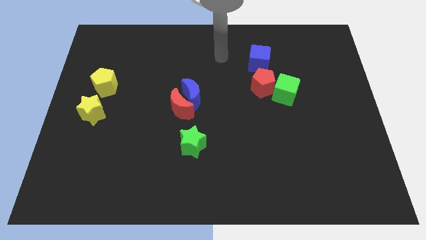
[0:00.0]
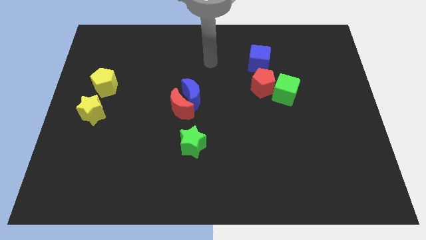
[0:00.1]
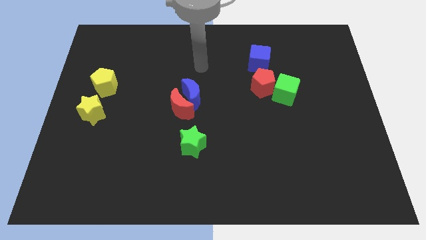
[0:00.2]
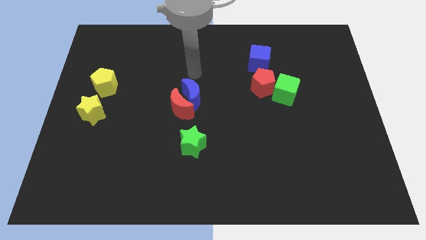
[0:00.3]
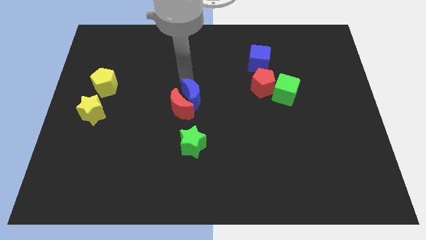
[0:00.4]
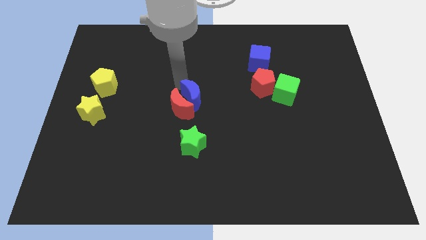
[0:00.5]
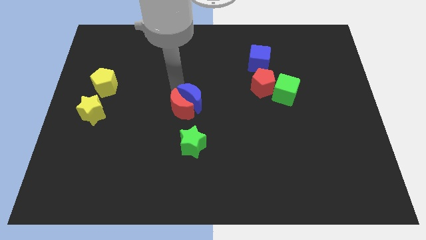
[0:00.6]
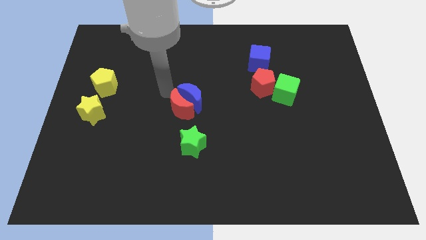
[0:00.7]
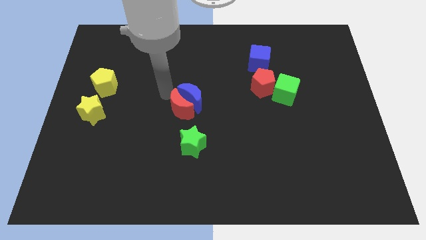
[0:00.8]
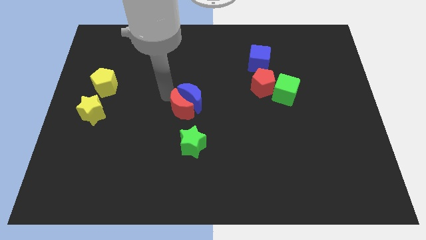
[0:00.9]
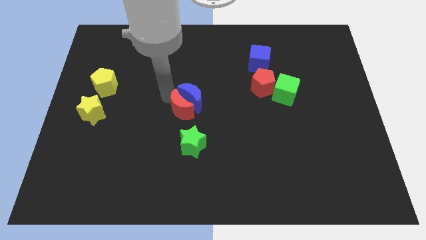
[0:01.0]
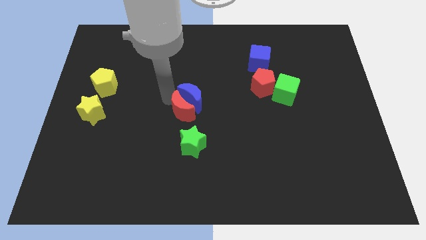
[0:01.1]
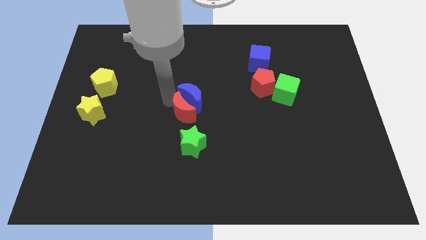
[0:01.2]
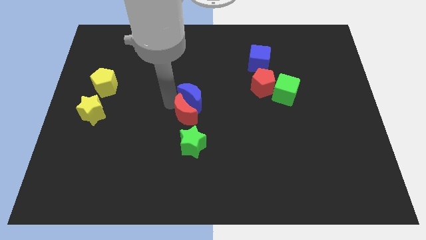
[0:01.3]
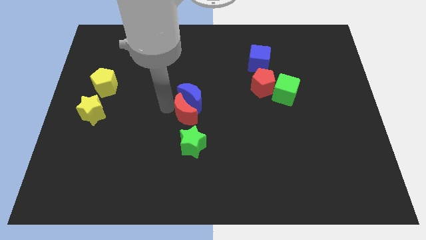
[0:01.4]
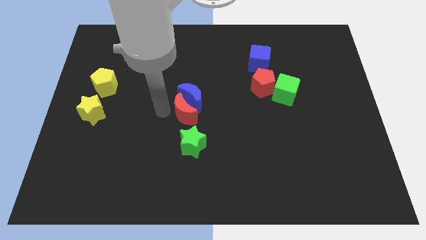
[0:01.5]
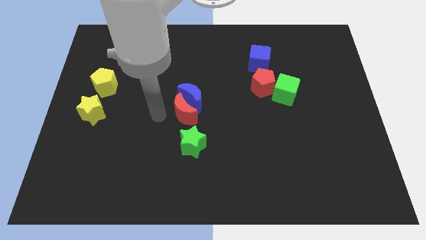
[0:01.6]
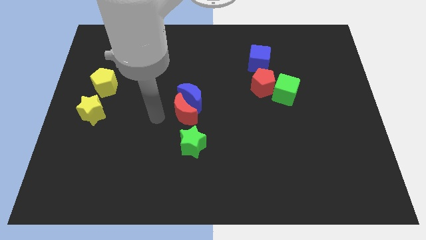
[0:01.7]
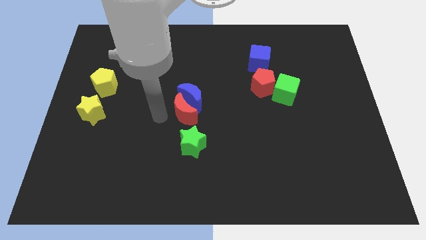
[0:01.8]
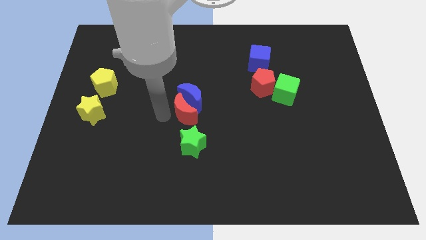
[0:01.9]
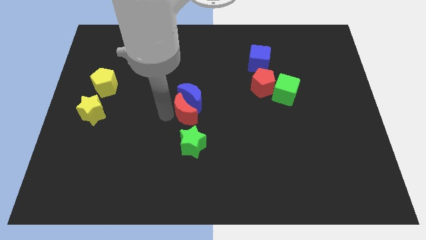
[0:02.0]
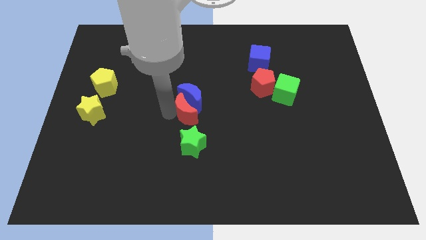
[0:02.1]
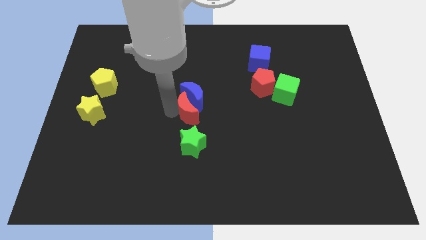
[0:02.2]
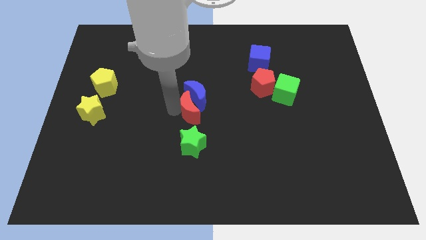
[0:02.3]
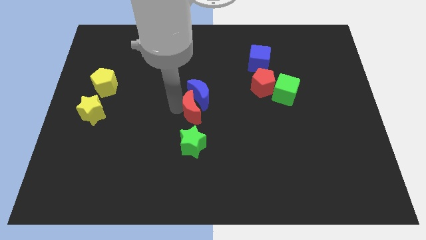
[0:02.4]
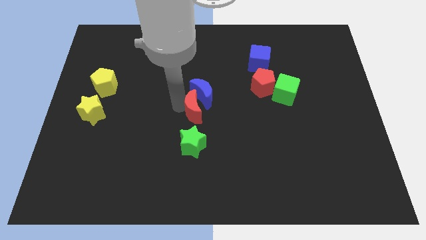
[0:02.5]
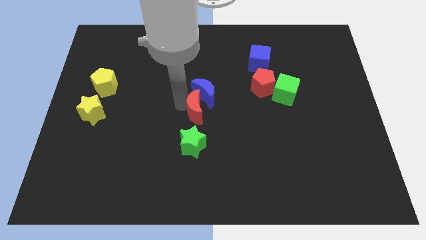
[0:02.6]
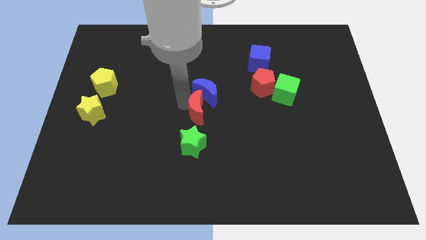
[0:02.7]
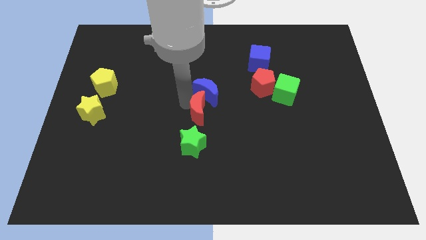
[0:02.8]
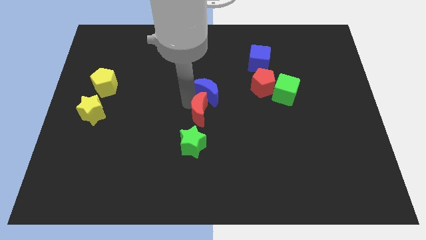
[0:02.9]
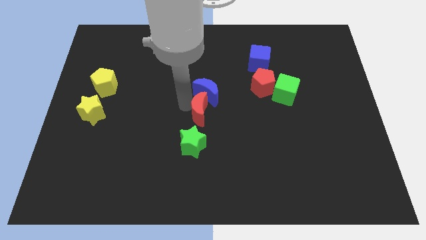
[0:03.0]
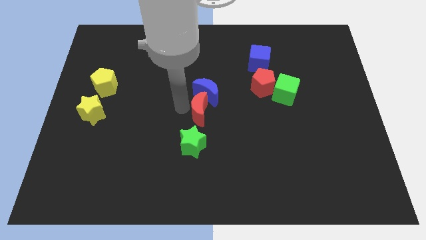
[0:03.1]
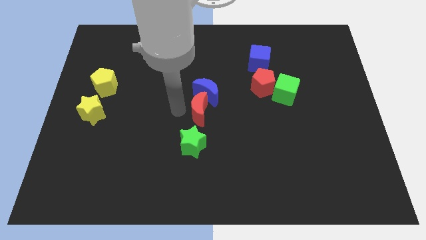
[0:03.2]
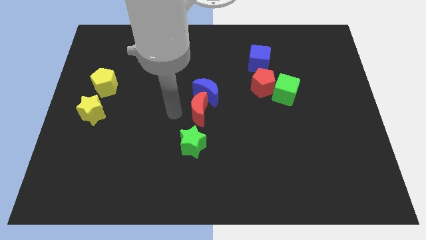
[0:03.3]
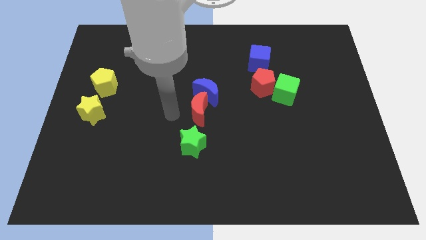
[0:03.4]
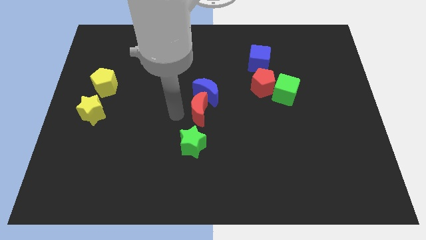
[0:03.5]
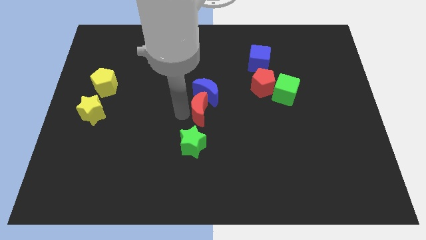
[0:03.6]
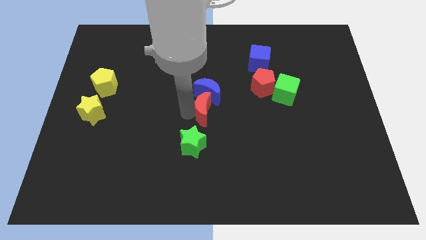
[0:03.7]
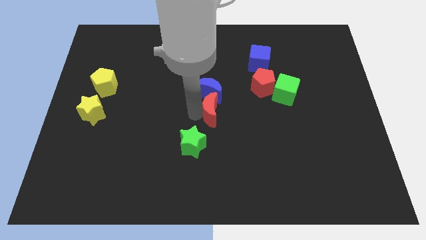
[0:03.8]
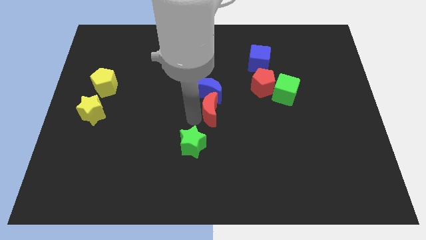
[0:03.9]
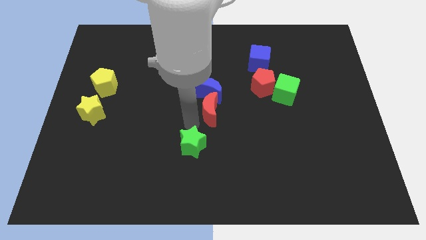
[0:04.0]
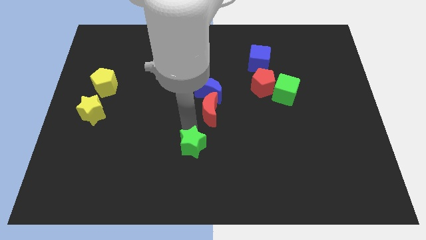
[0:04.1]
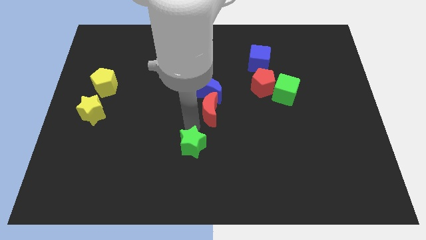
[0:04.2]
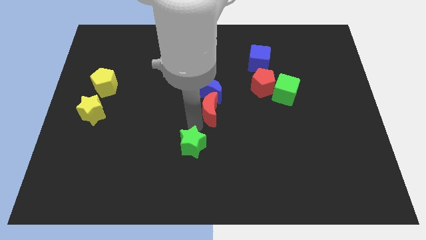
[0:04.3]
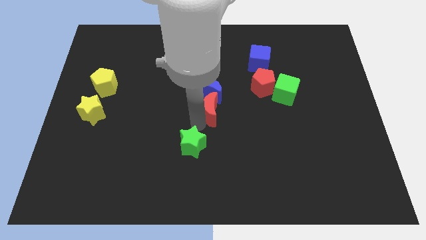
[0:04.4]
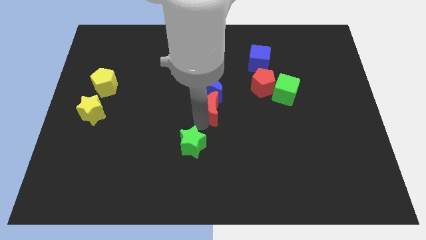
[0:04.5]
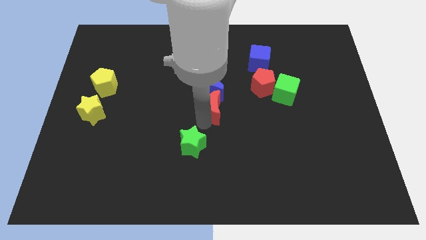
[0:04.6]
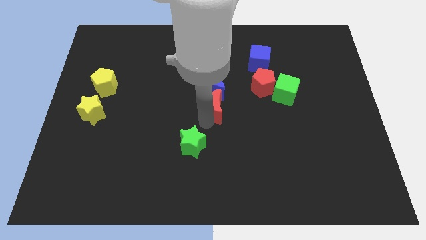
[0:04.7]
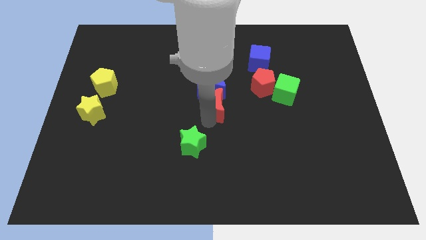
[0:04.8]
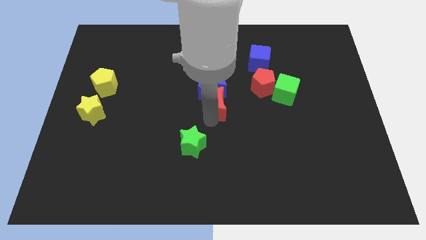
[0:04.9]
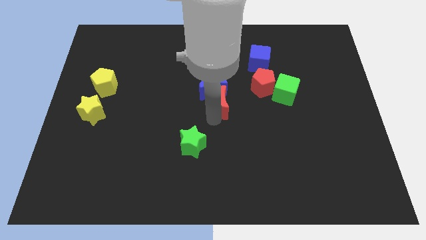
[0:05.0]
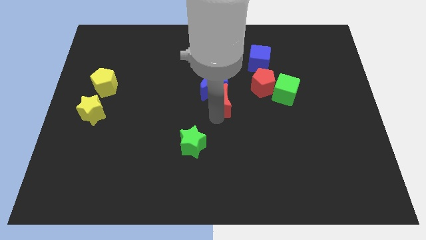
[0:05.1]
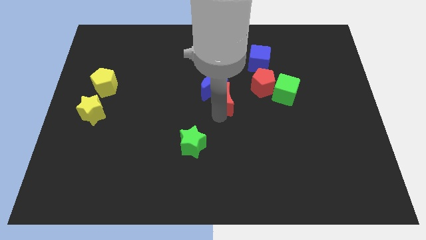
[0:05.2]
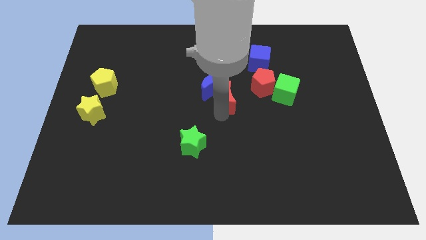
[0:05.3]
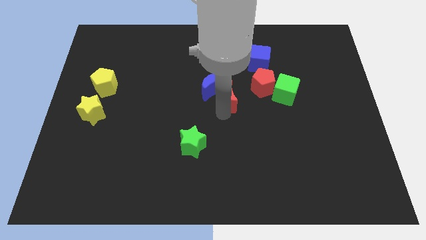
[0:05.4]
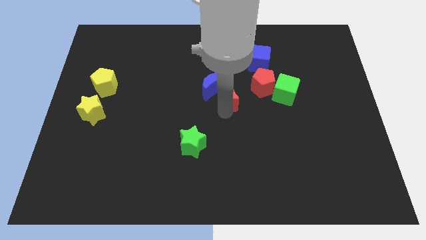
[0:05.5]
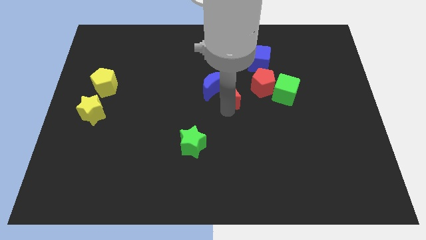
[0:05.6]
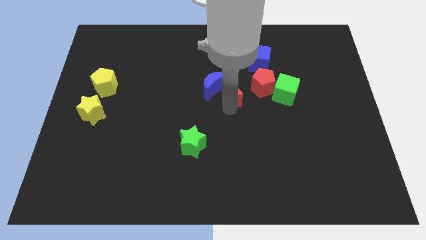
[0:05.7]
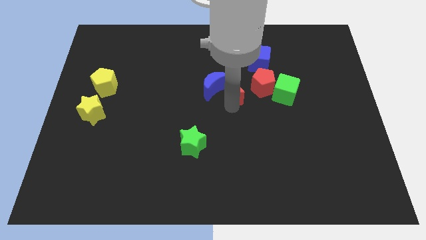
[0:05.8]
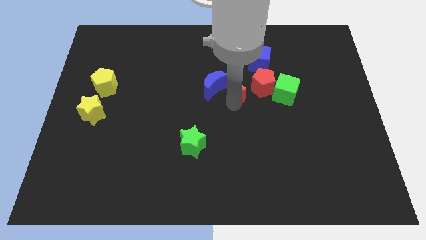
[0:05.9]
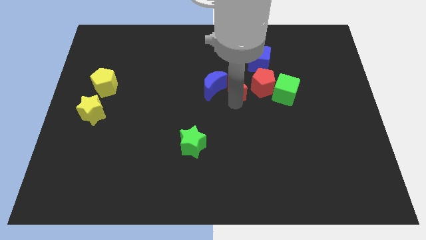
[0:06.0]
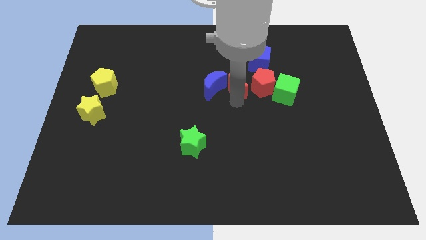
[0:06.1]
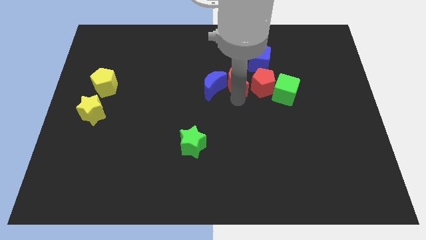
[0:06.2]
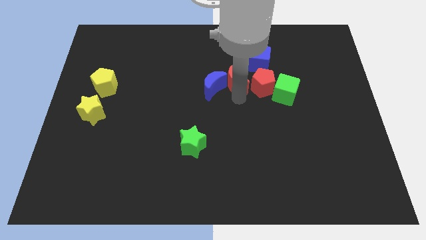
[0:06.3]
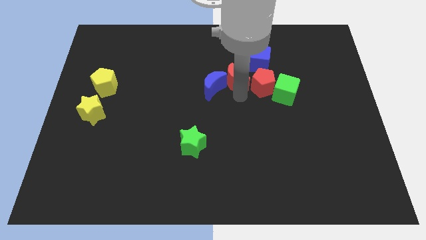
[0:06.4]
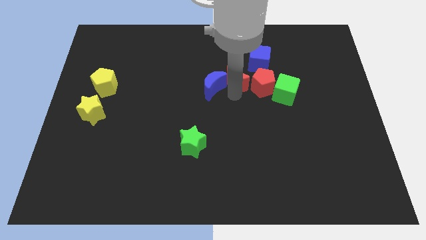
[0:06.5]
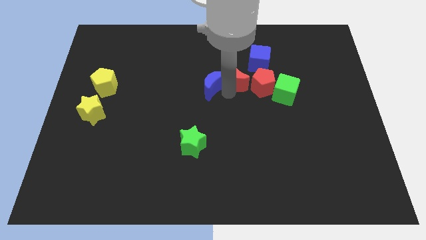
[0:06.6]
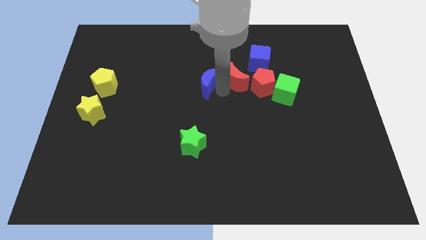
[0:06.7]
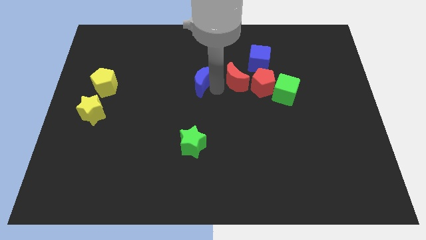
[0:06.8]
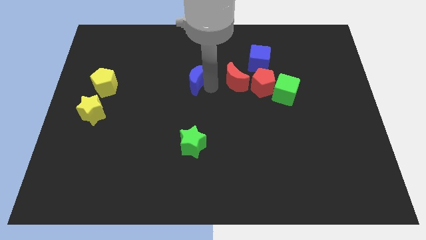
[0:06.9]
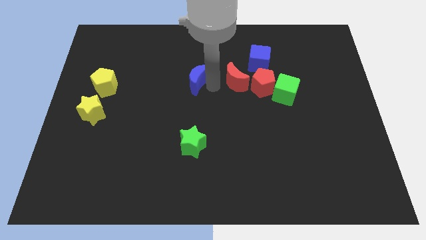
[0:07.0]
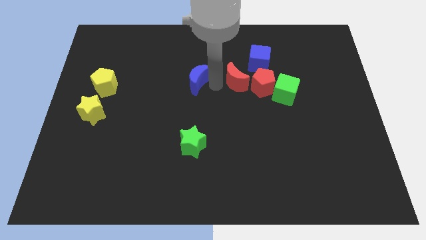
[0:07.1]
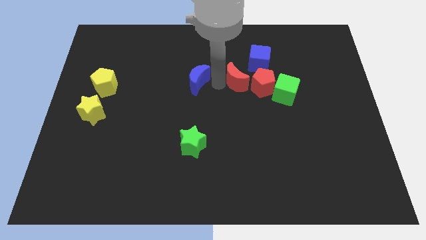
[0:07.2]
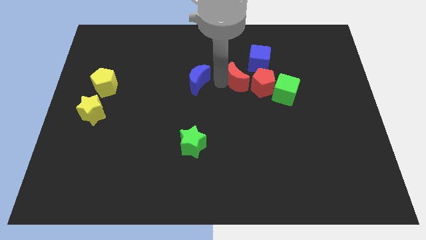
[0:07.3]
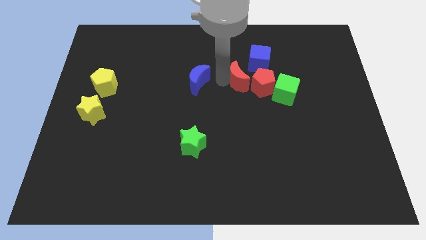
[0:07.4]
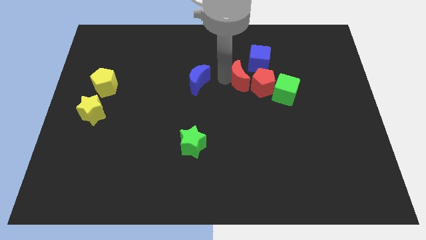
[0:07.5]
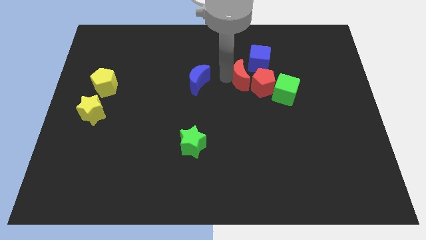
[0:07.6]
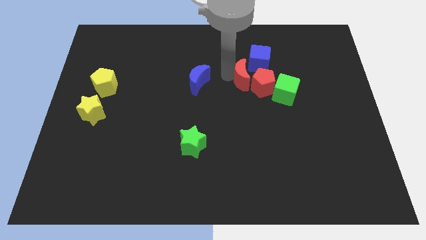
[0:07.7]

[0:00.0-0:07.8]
push the red moon to the top left of the green cube
